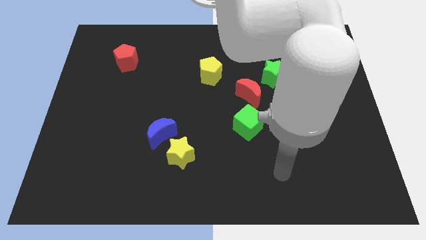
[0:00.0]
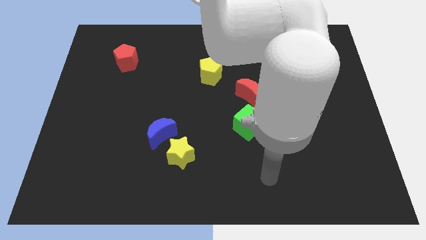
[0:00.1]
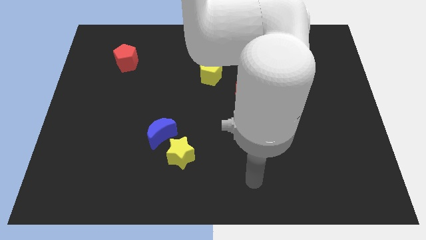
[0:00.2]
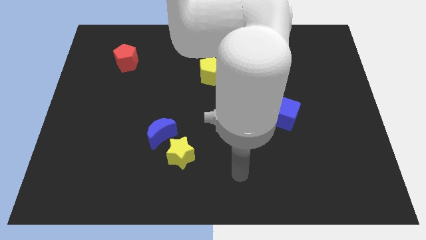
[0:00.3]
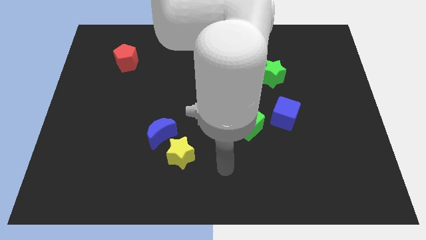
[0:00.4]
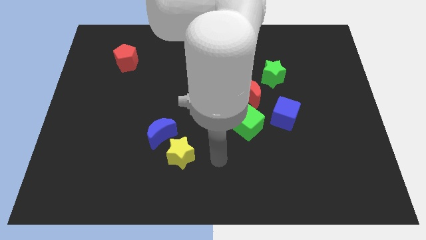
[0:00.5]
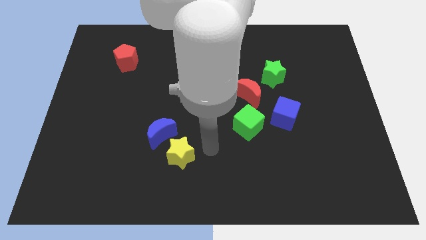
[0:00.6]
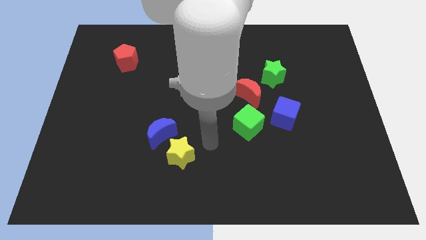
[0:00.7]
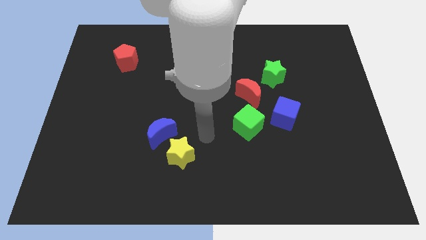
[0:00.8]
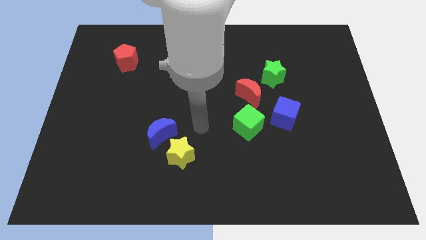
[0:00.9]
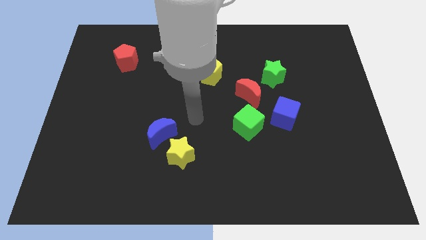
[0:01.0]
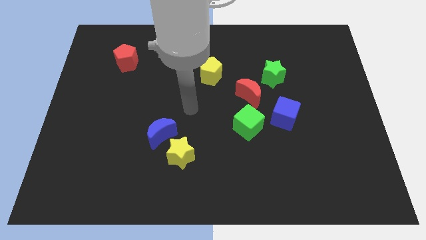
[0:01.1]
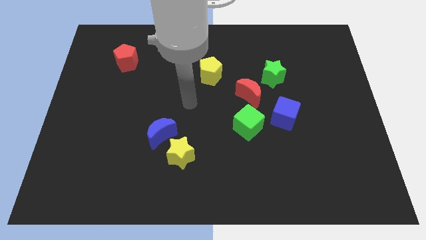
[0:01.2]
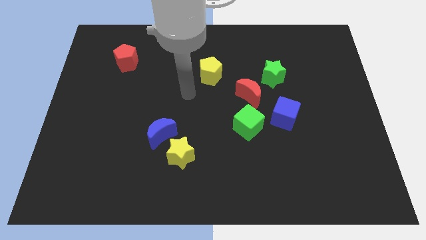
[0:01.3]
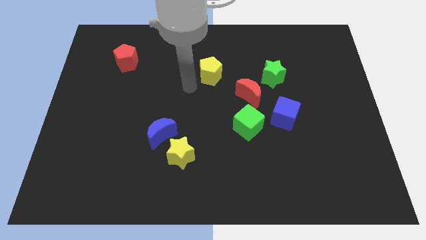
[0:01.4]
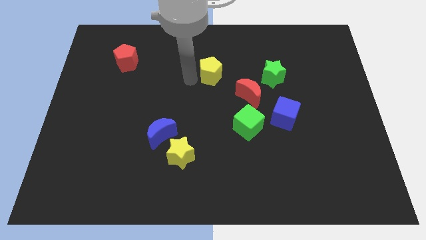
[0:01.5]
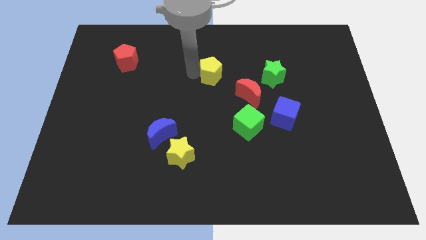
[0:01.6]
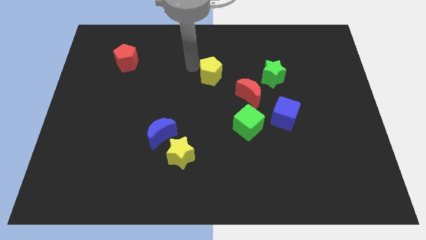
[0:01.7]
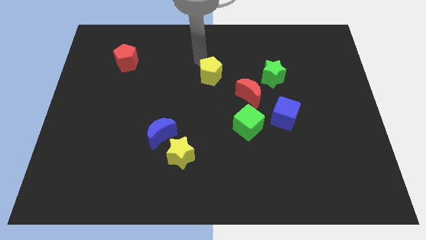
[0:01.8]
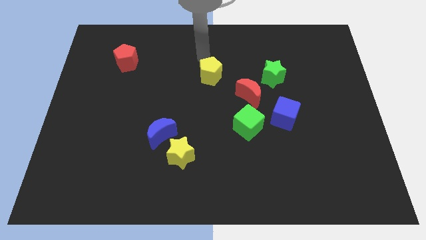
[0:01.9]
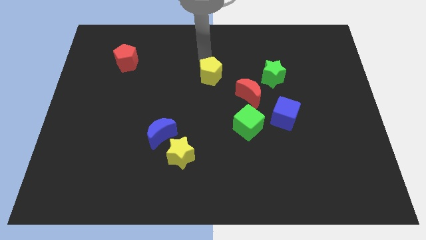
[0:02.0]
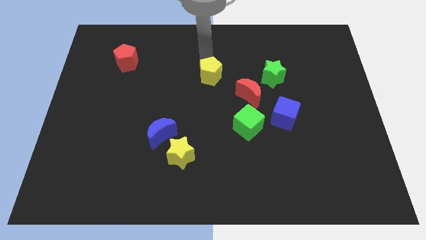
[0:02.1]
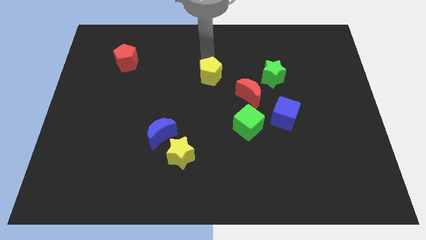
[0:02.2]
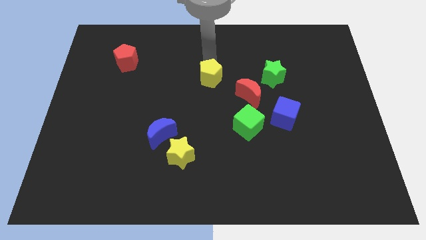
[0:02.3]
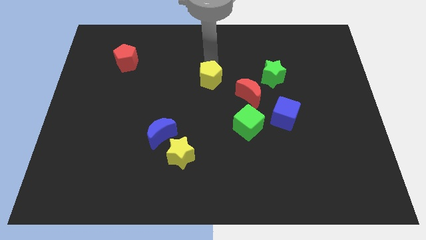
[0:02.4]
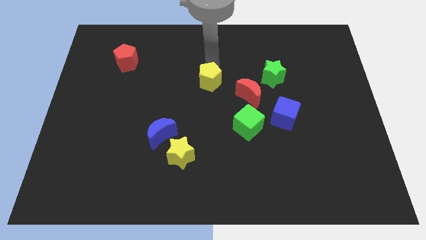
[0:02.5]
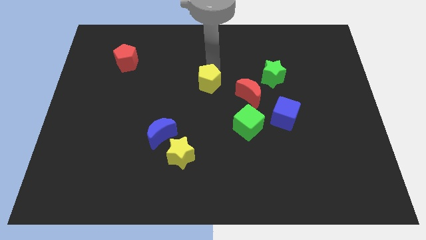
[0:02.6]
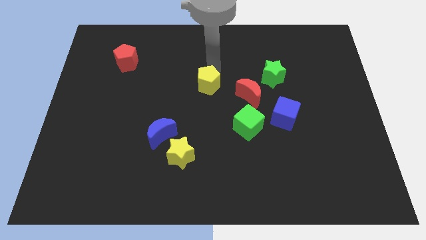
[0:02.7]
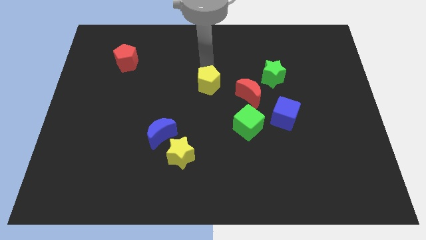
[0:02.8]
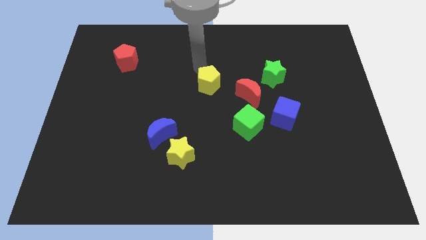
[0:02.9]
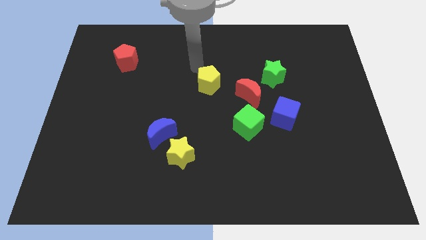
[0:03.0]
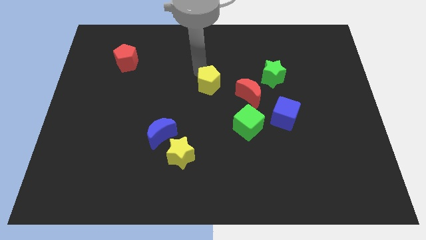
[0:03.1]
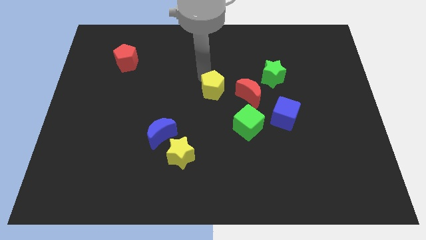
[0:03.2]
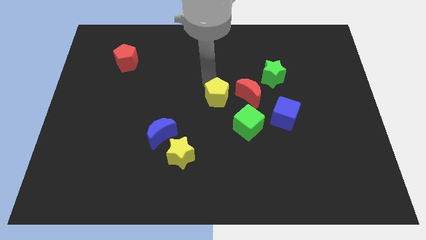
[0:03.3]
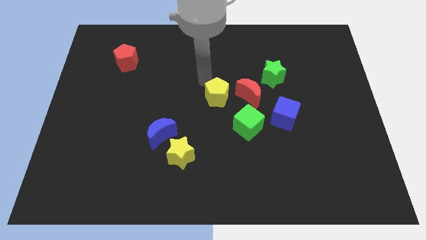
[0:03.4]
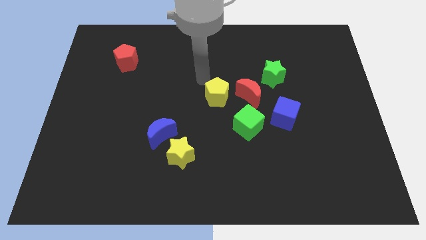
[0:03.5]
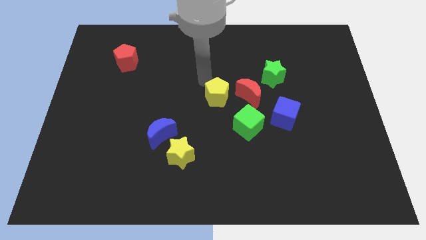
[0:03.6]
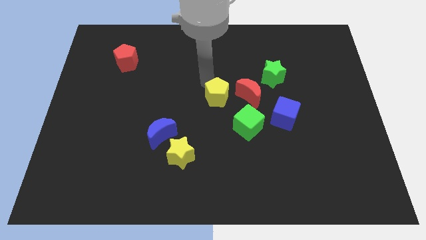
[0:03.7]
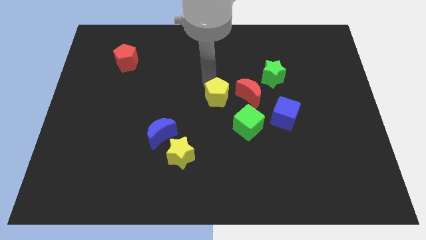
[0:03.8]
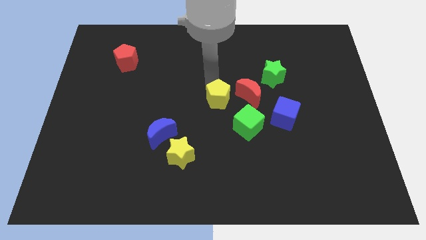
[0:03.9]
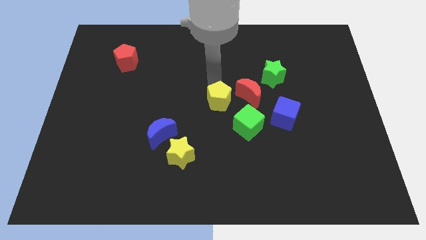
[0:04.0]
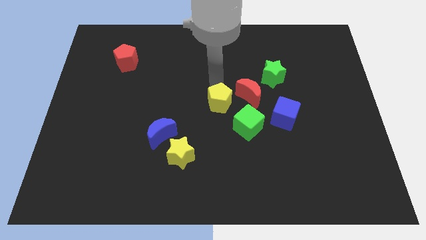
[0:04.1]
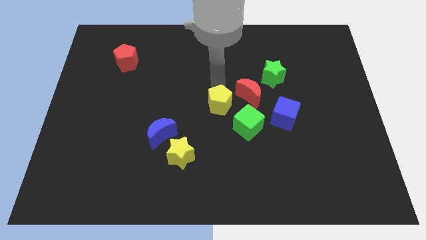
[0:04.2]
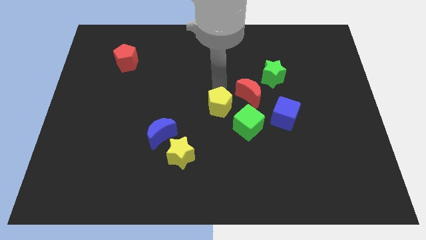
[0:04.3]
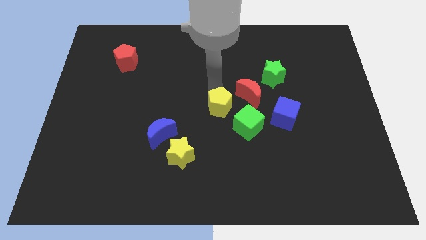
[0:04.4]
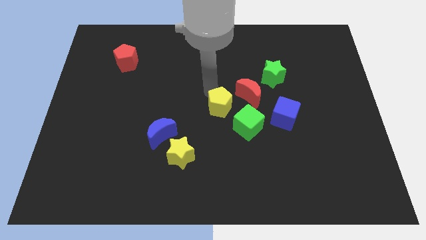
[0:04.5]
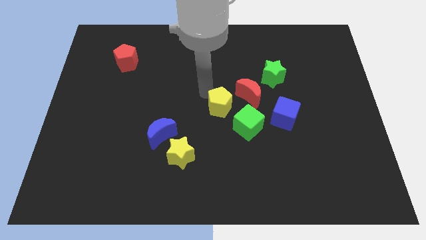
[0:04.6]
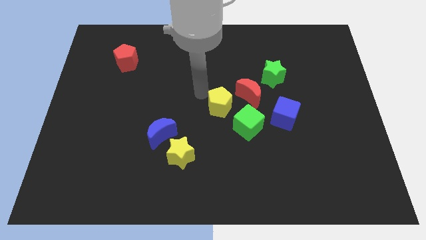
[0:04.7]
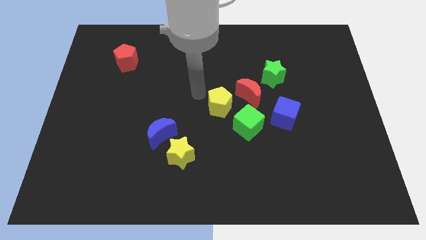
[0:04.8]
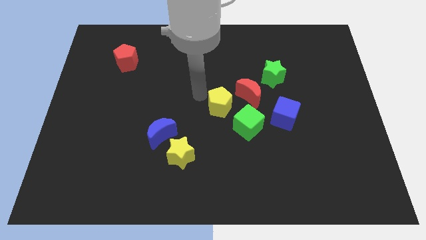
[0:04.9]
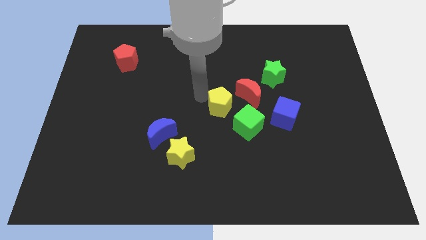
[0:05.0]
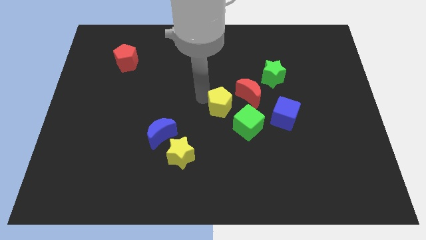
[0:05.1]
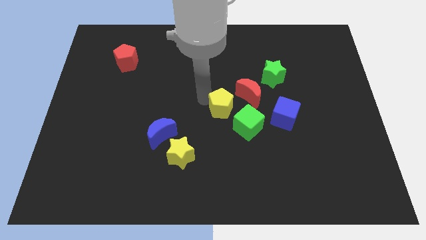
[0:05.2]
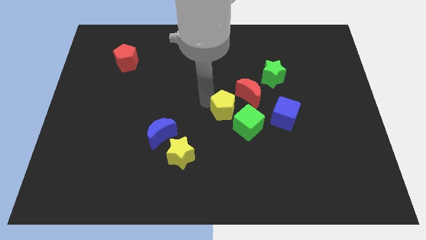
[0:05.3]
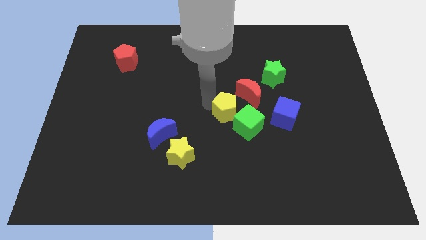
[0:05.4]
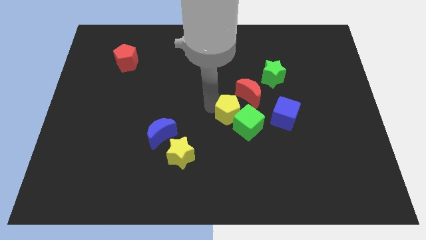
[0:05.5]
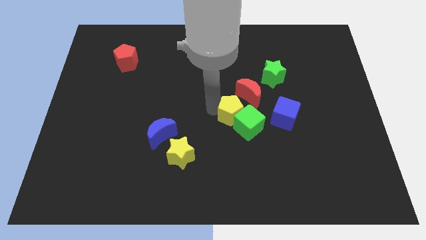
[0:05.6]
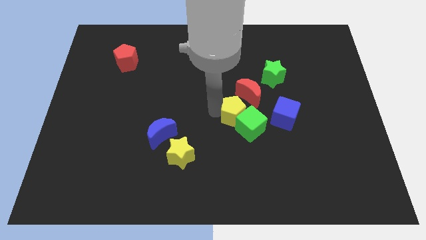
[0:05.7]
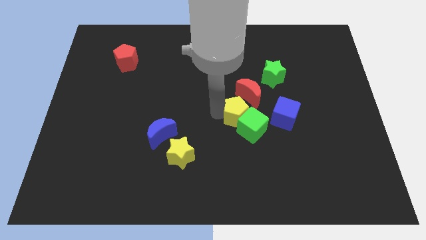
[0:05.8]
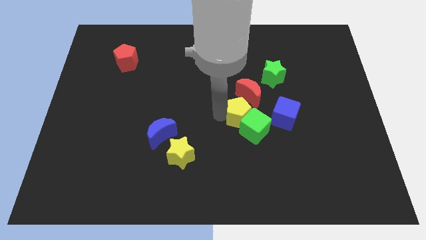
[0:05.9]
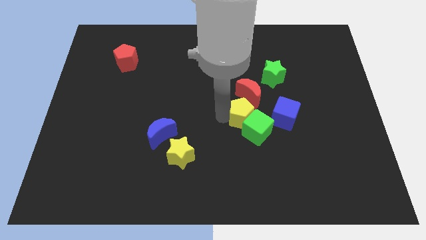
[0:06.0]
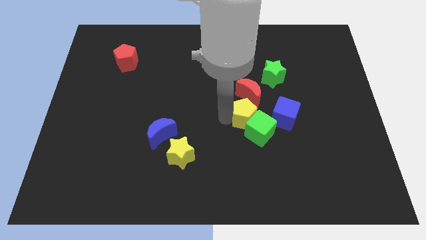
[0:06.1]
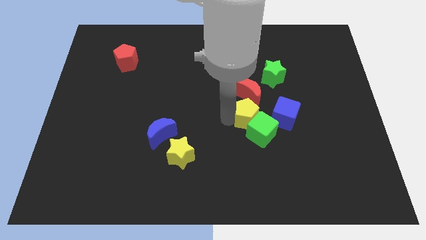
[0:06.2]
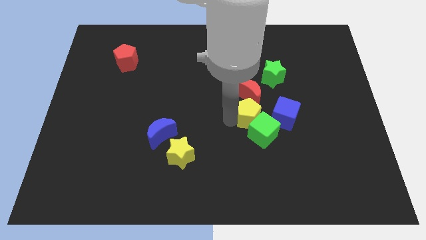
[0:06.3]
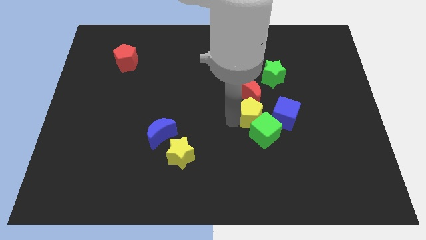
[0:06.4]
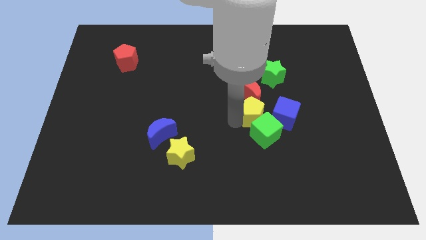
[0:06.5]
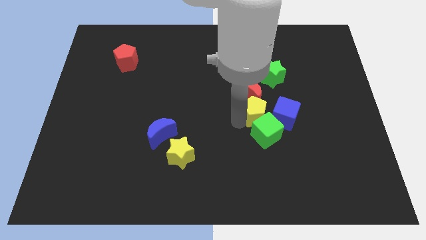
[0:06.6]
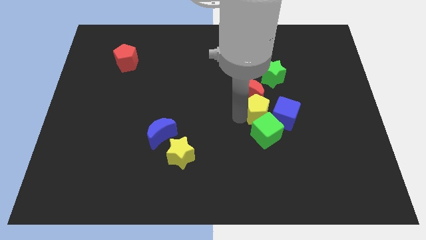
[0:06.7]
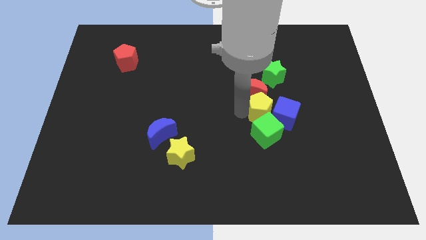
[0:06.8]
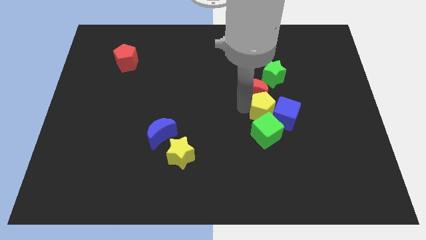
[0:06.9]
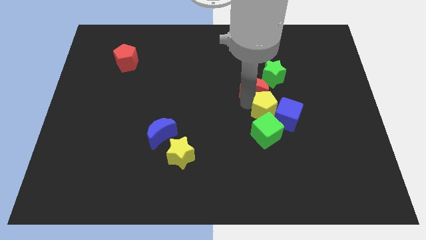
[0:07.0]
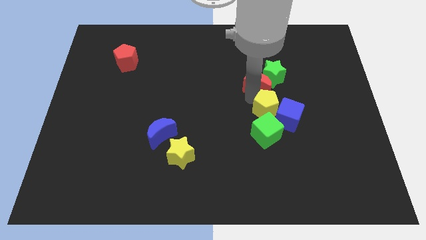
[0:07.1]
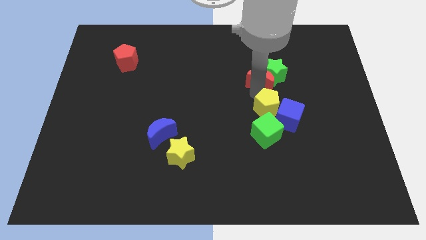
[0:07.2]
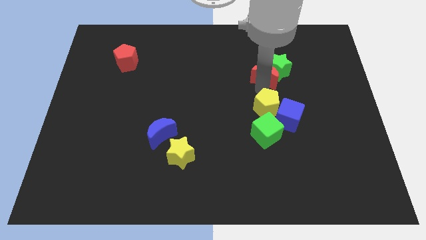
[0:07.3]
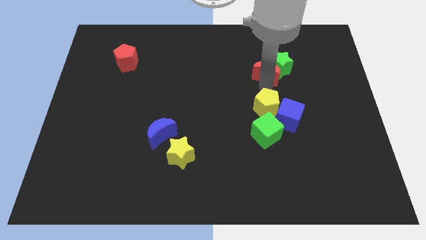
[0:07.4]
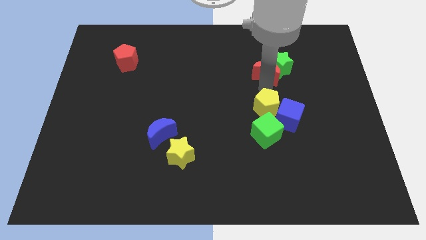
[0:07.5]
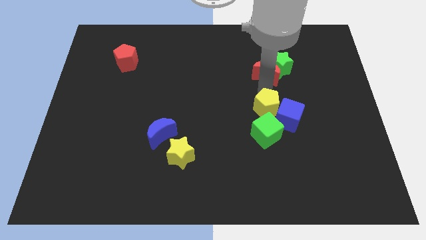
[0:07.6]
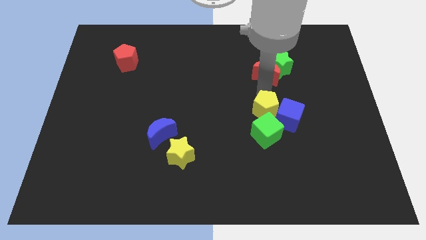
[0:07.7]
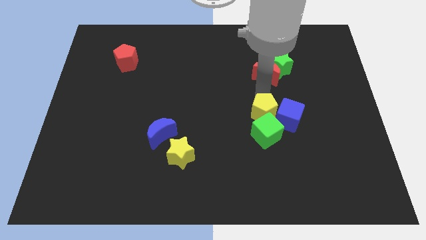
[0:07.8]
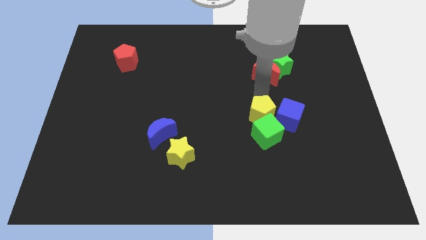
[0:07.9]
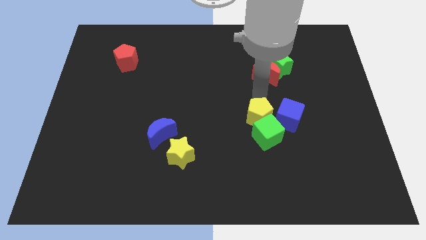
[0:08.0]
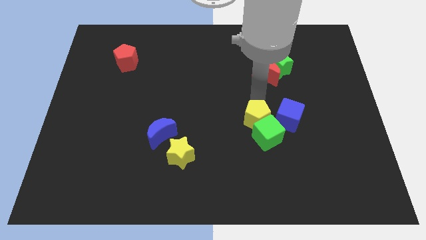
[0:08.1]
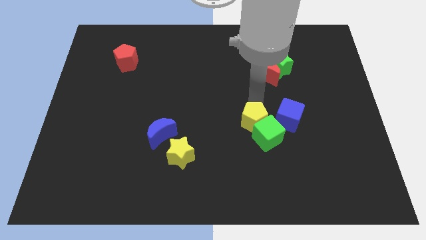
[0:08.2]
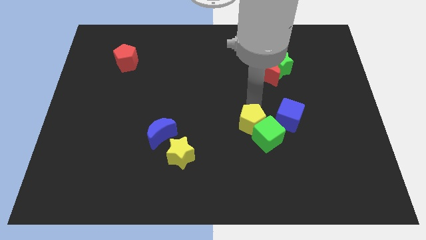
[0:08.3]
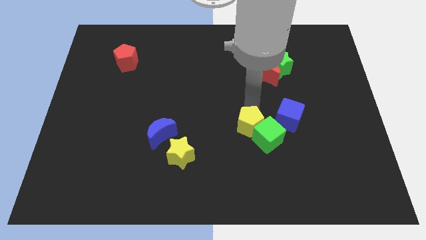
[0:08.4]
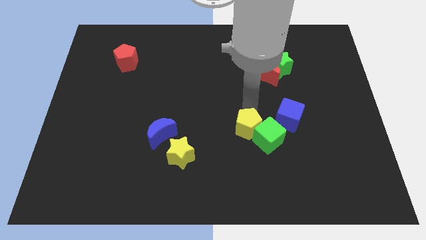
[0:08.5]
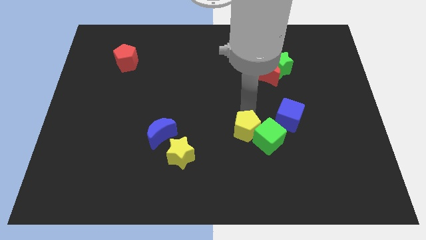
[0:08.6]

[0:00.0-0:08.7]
slide the yellow pentagon to the bottom left of the blue cube
